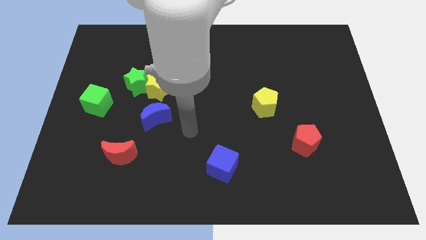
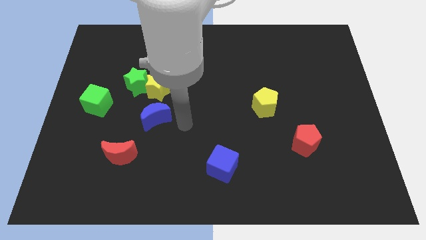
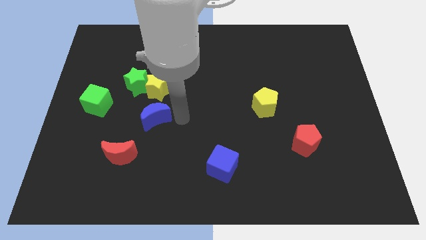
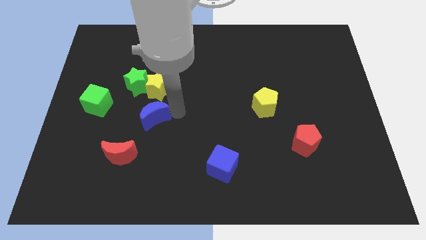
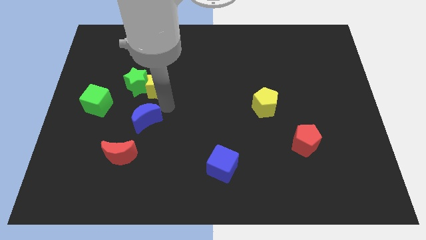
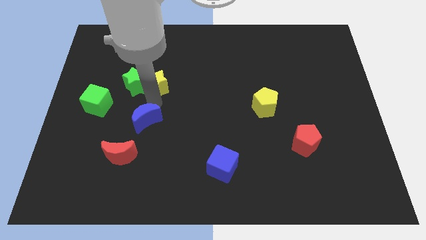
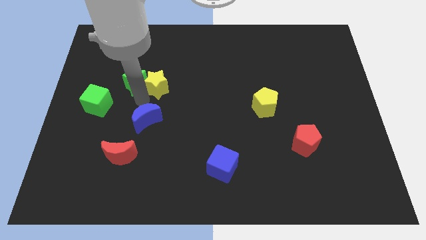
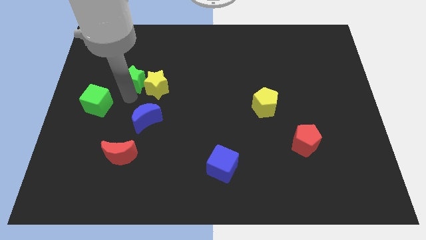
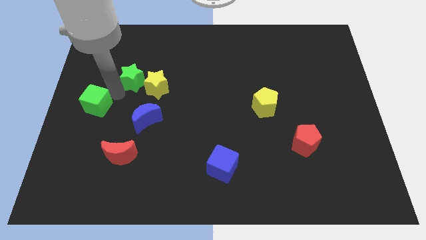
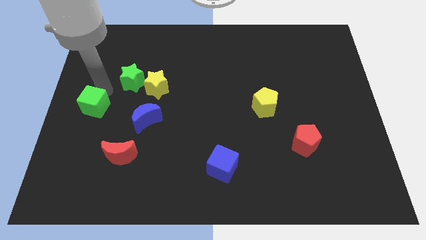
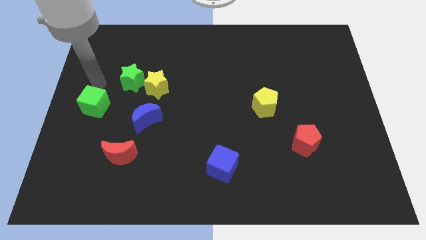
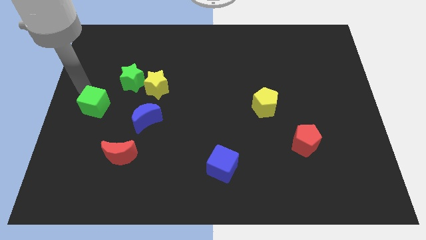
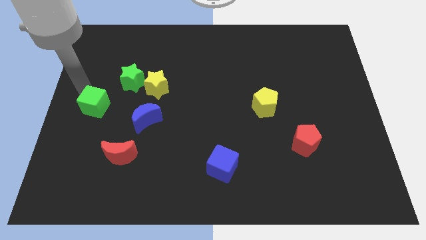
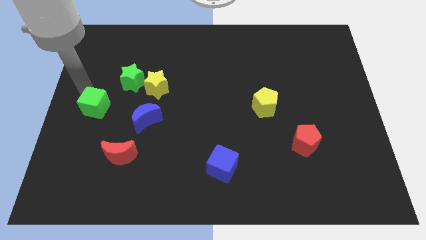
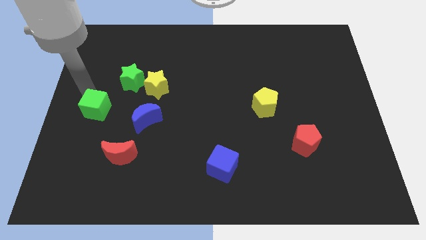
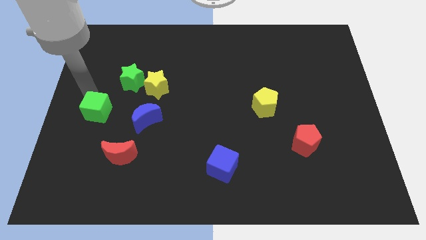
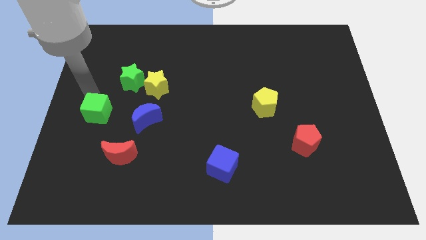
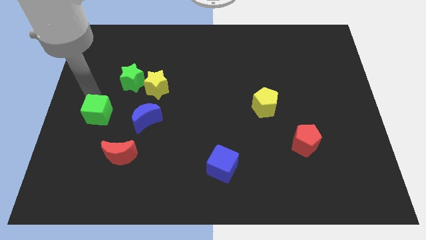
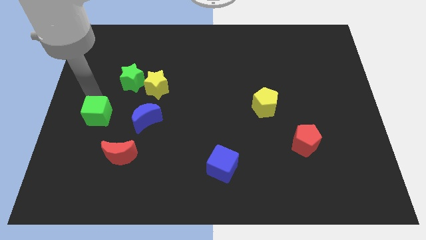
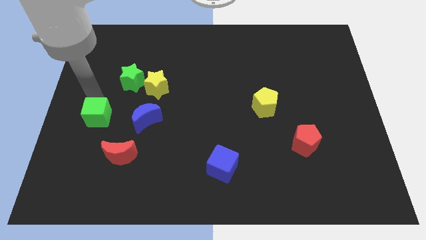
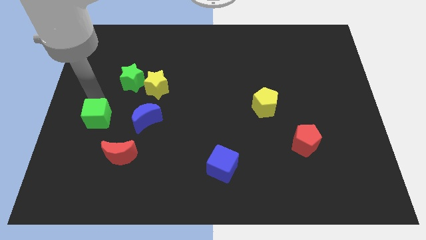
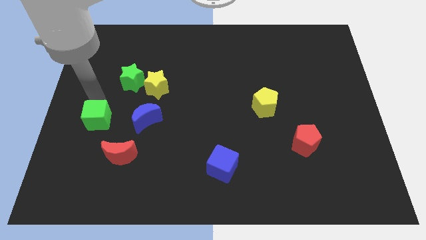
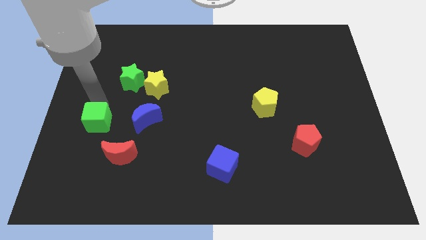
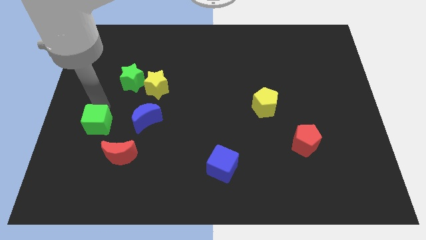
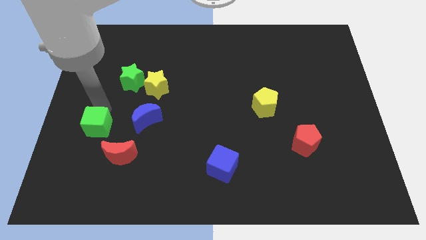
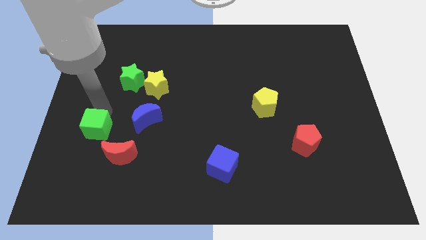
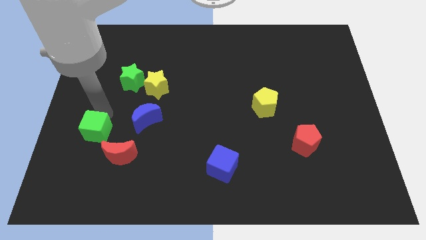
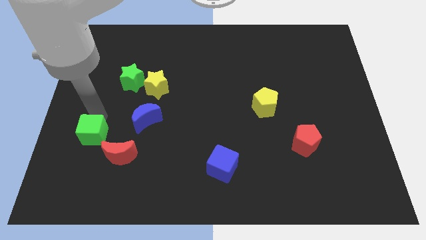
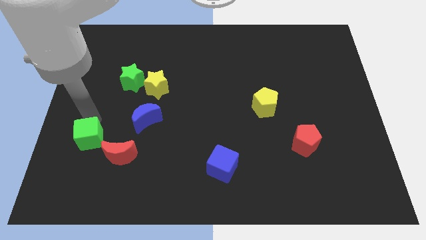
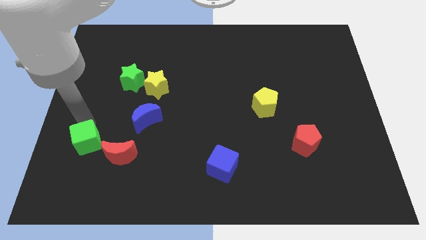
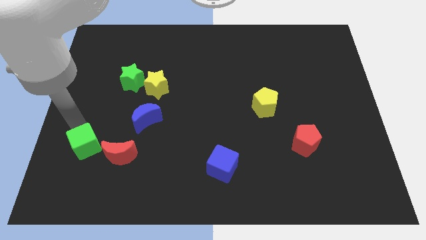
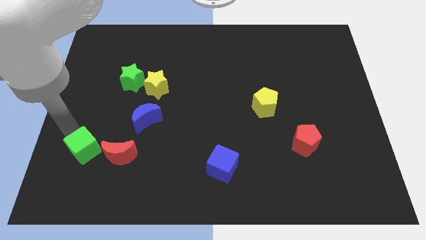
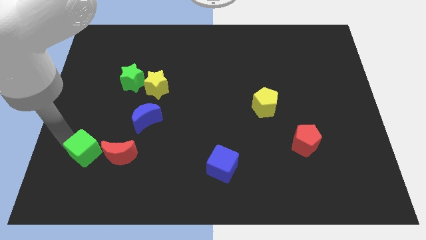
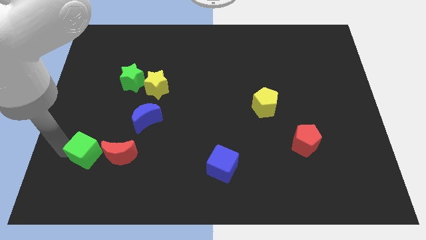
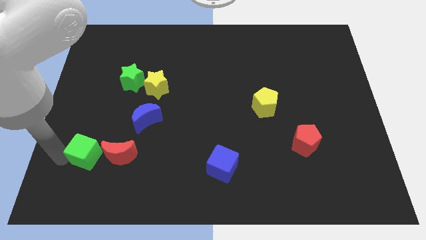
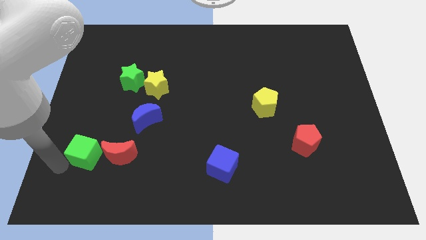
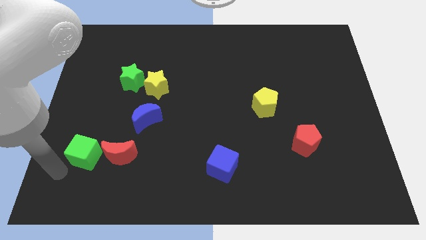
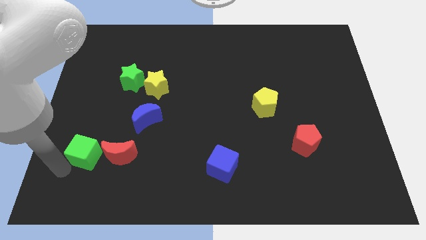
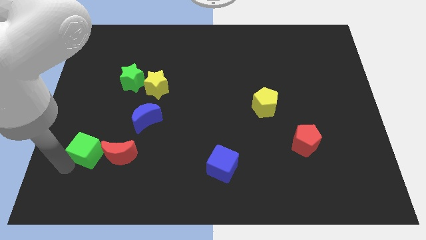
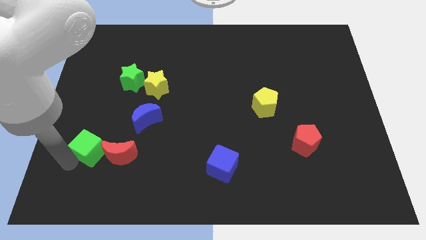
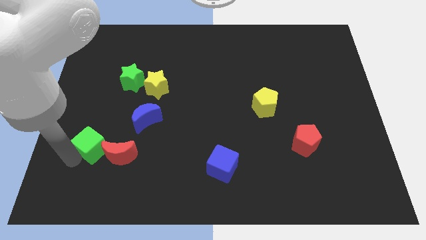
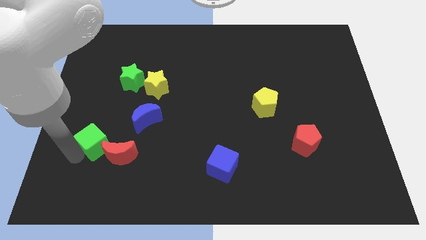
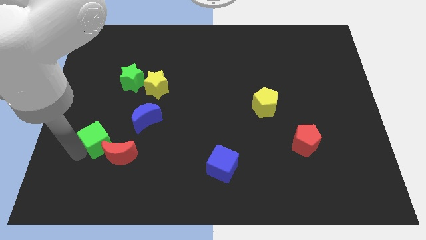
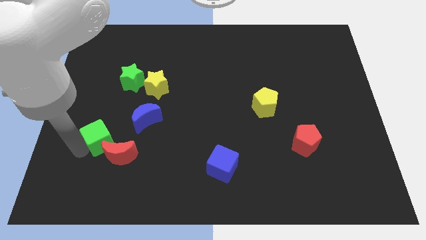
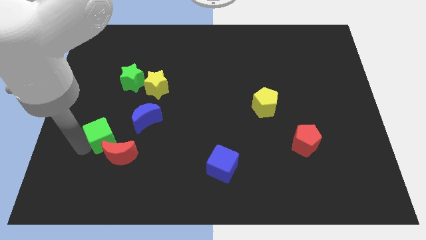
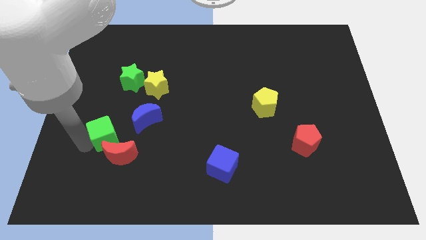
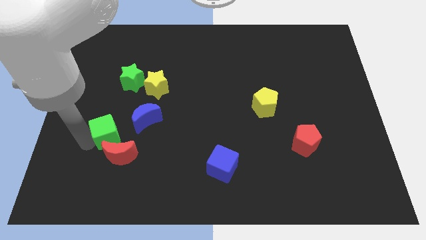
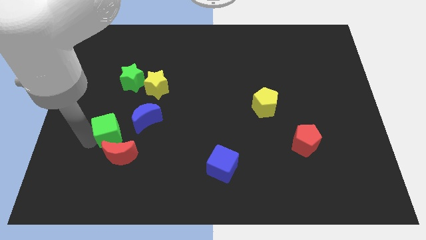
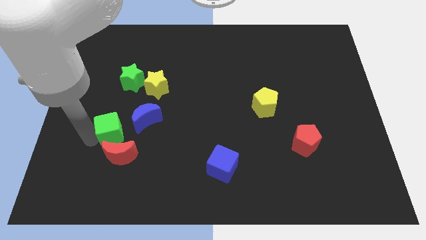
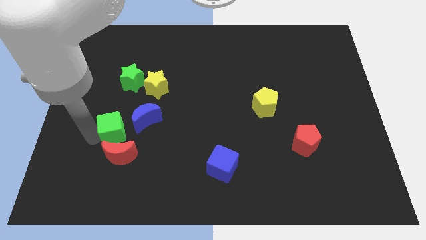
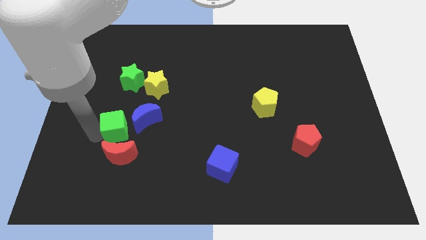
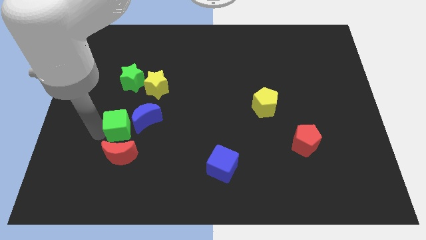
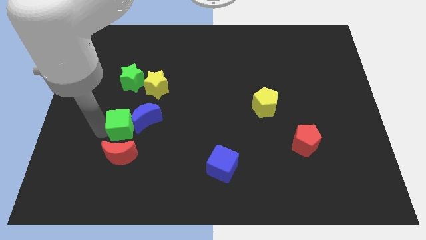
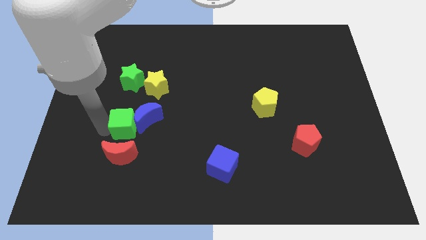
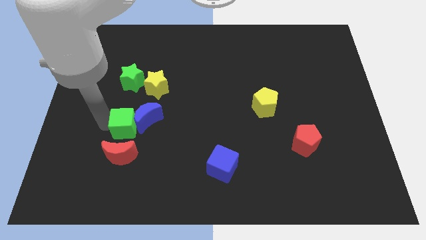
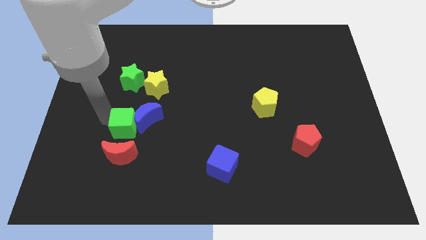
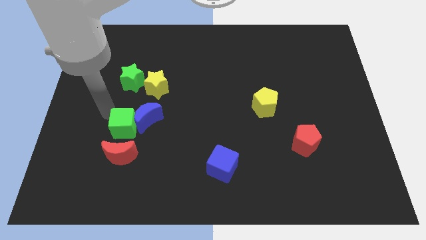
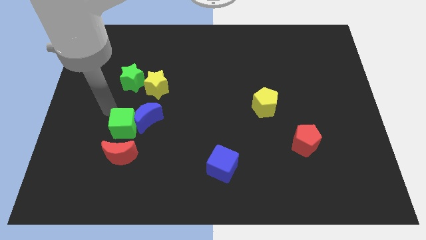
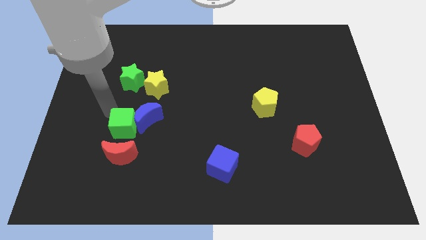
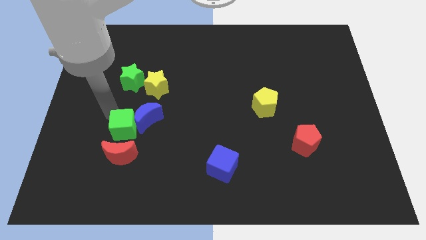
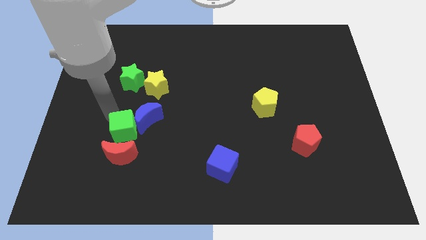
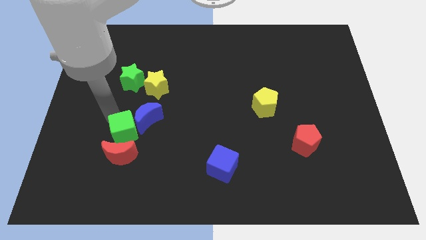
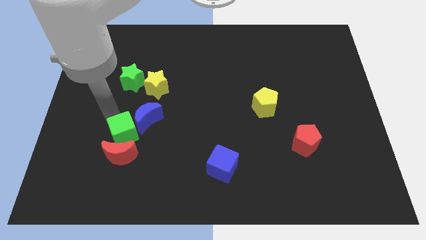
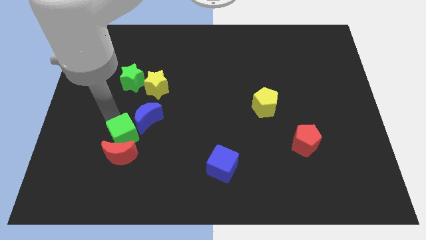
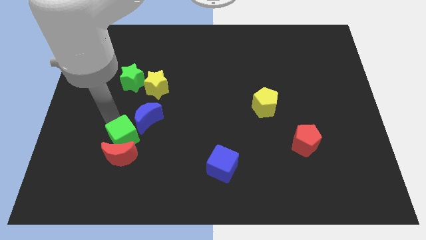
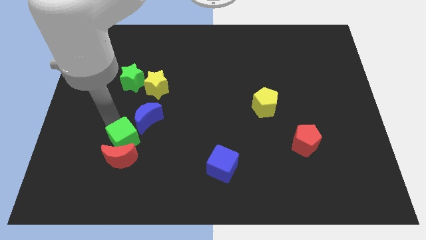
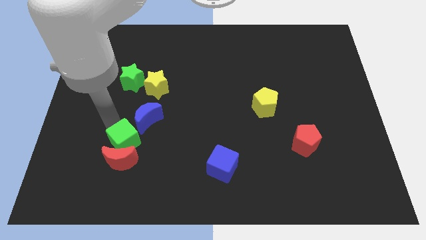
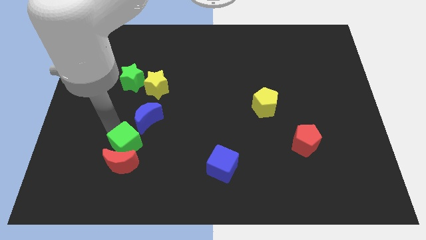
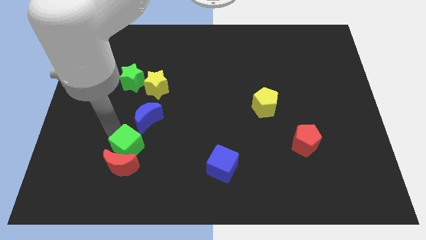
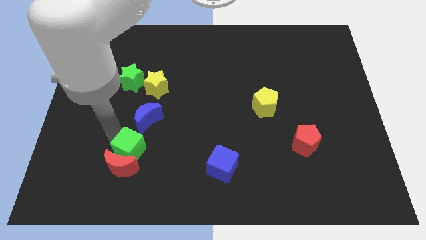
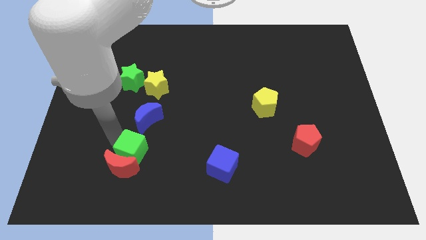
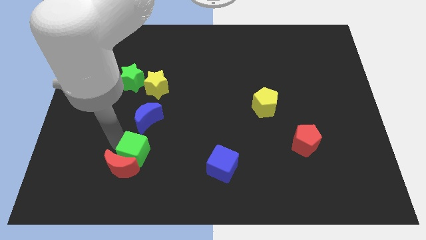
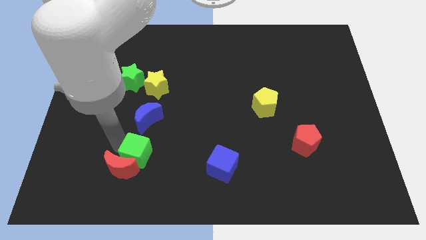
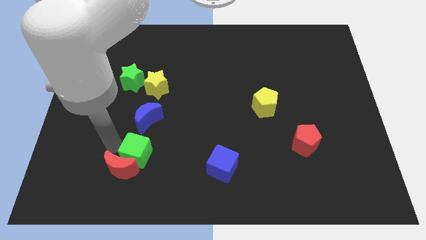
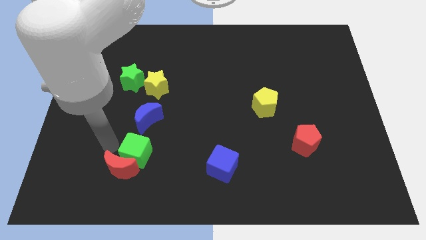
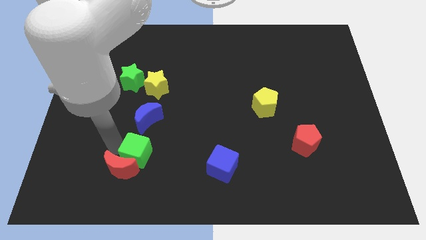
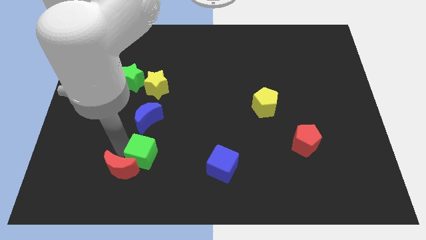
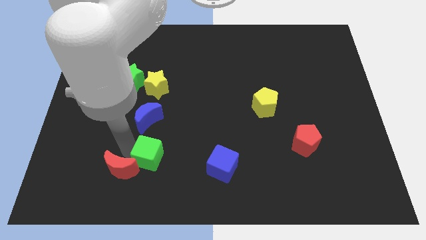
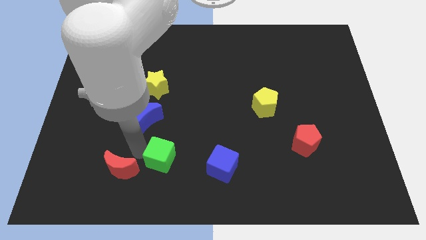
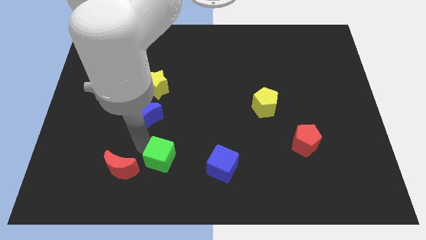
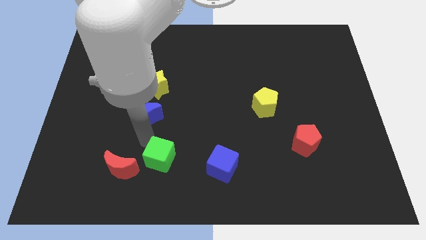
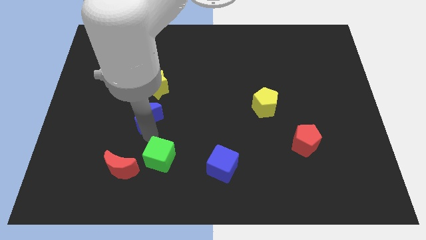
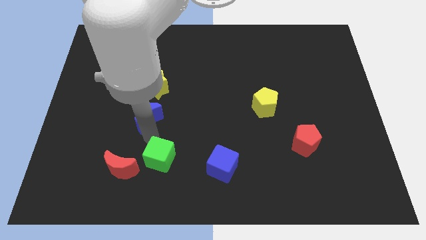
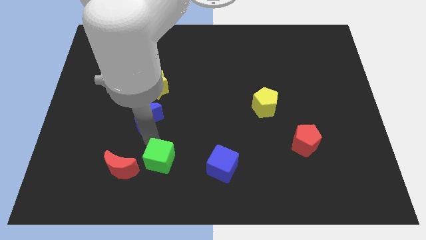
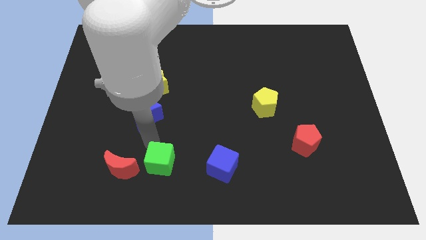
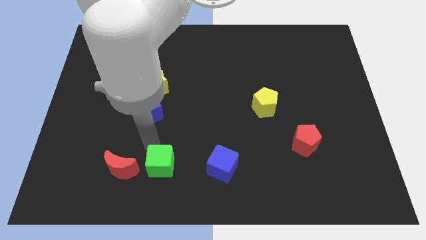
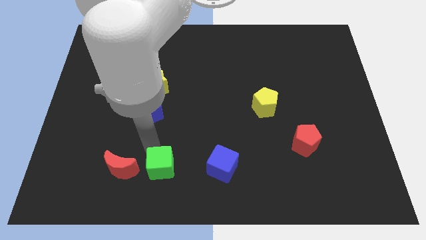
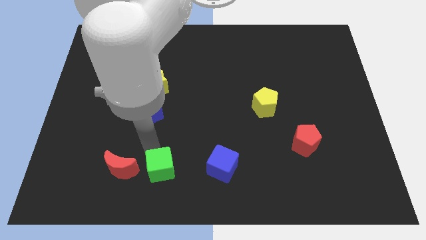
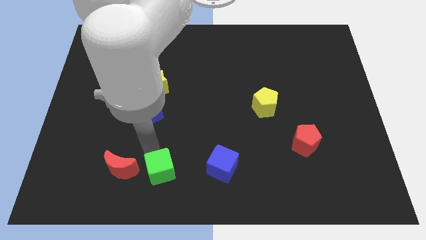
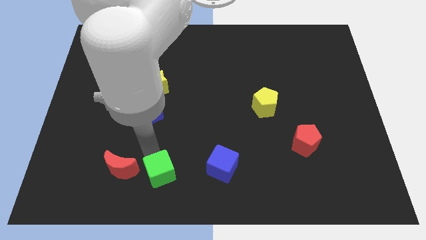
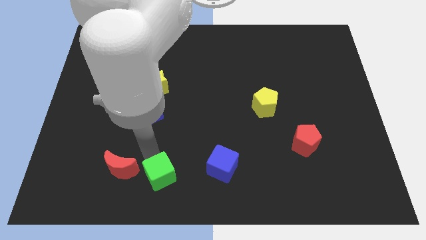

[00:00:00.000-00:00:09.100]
move the green cube to the bottom
